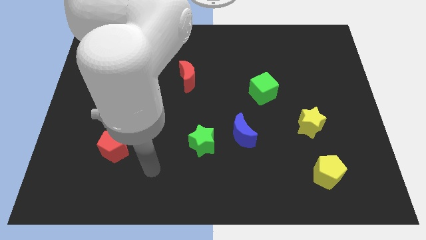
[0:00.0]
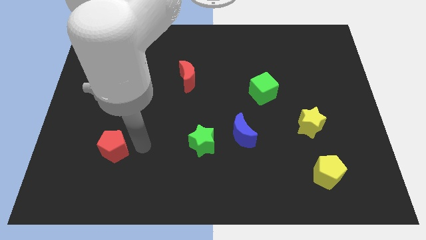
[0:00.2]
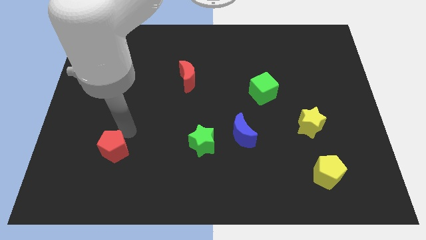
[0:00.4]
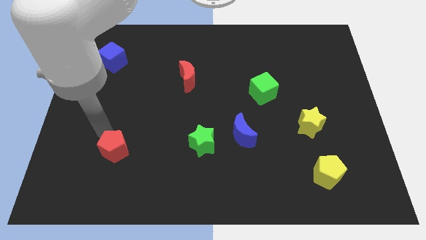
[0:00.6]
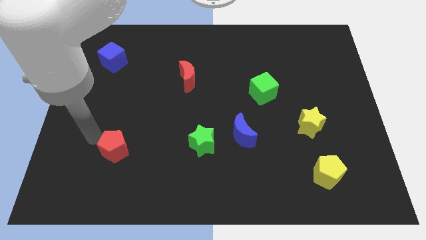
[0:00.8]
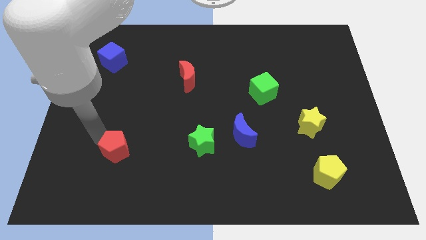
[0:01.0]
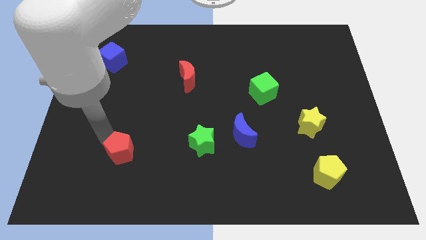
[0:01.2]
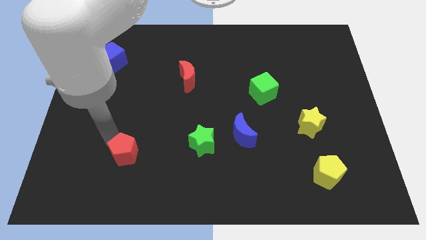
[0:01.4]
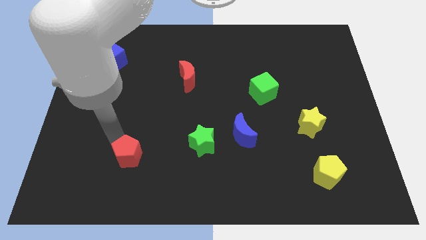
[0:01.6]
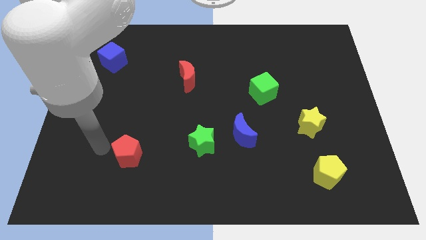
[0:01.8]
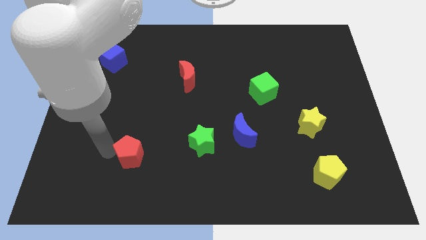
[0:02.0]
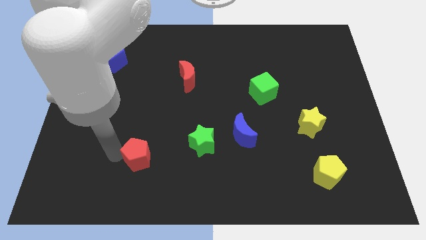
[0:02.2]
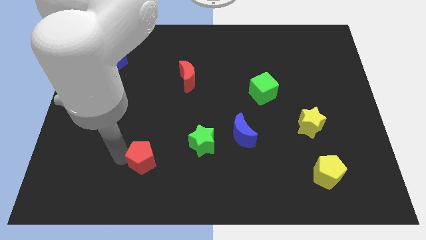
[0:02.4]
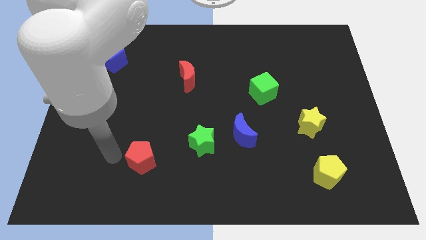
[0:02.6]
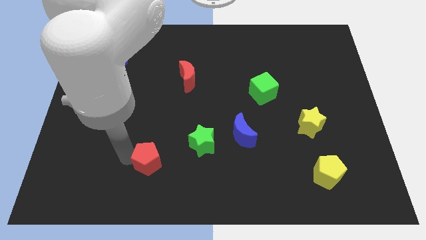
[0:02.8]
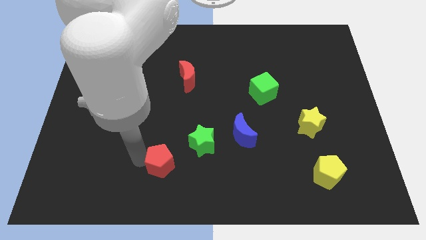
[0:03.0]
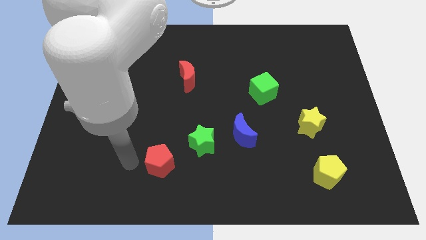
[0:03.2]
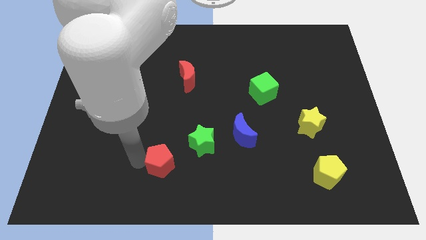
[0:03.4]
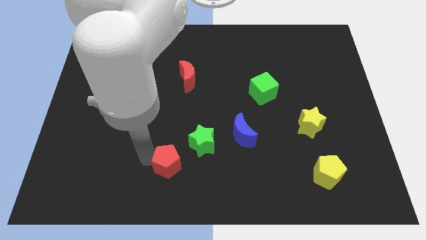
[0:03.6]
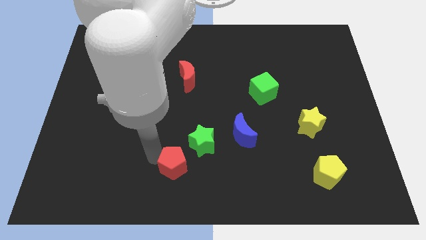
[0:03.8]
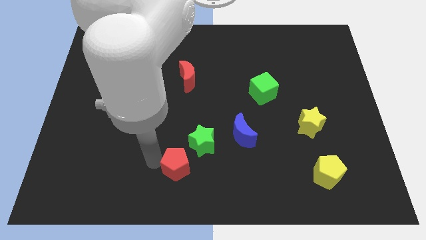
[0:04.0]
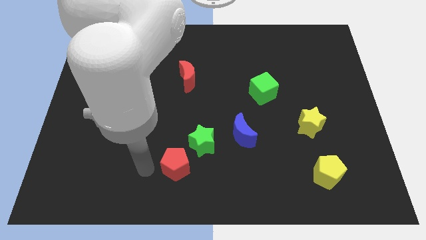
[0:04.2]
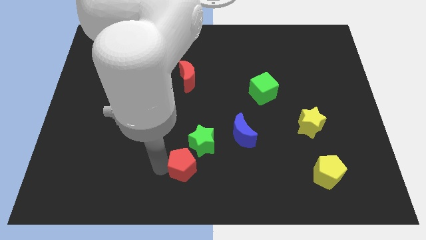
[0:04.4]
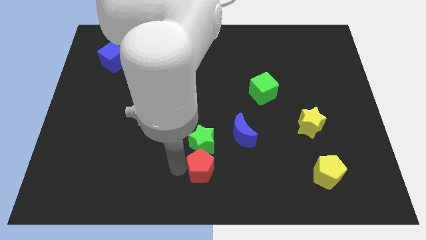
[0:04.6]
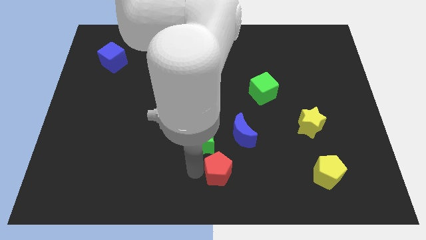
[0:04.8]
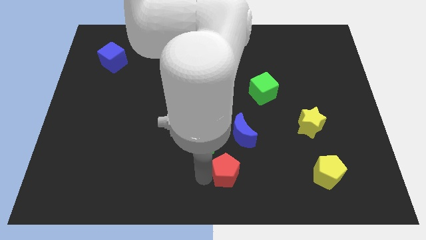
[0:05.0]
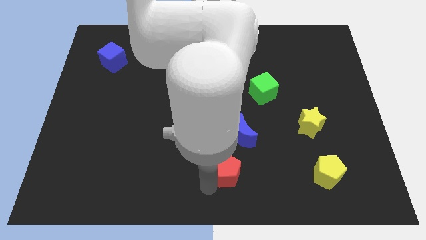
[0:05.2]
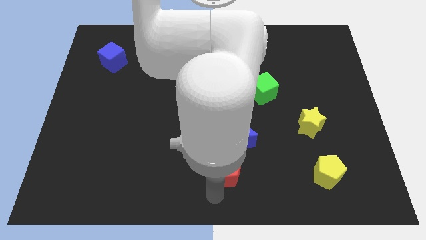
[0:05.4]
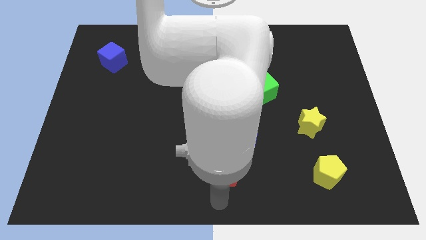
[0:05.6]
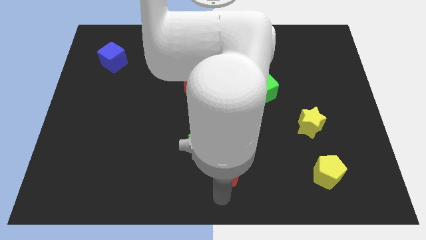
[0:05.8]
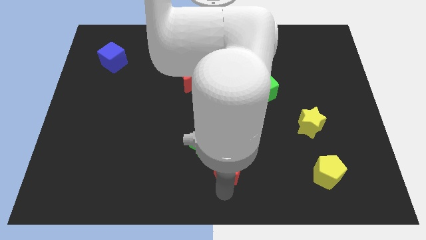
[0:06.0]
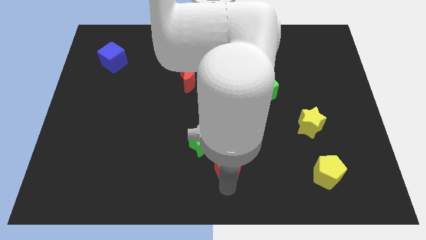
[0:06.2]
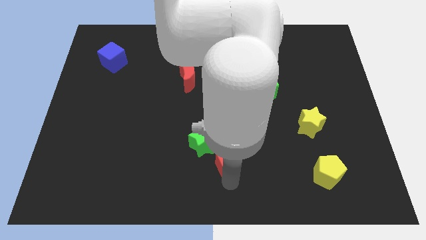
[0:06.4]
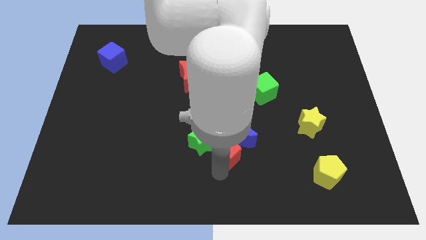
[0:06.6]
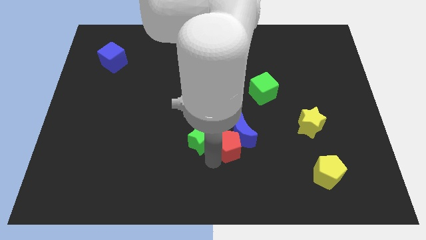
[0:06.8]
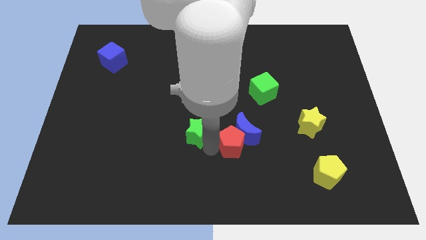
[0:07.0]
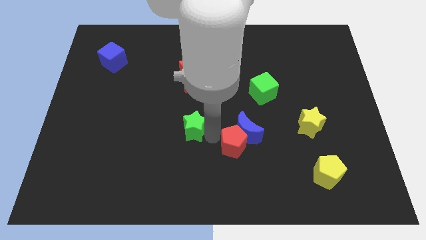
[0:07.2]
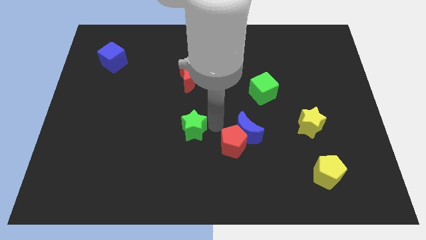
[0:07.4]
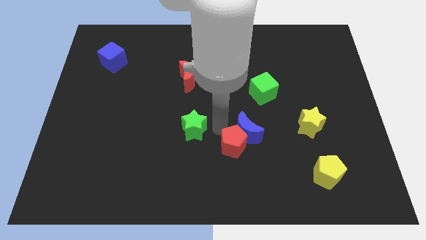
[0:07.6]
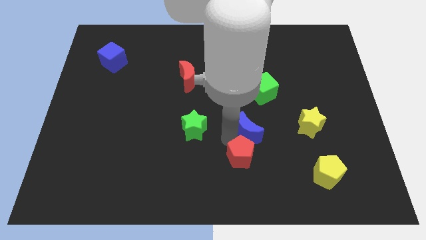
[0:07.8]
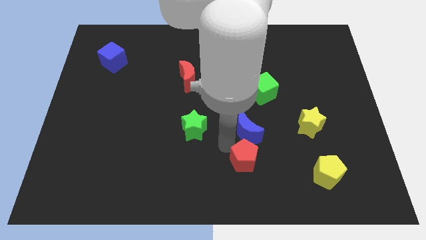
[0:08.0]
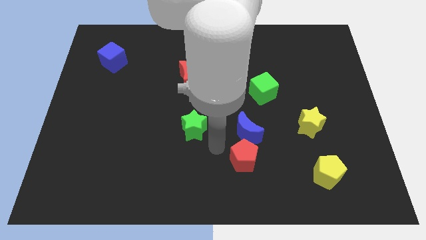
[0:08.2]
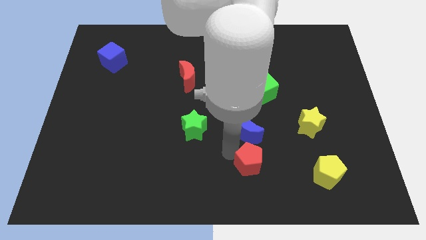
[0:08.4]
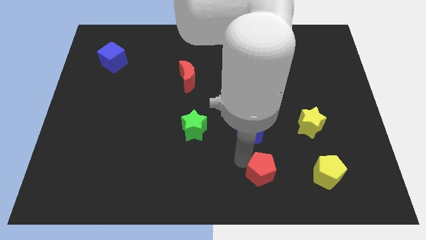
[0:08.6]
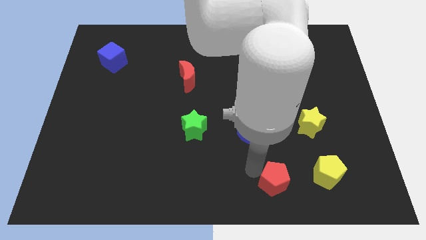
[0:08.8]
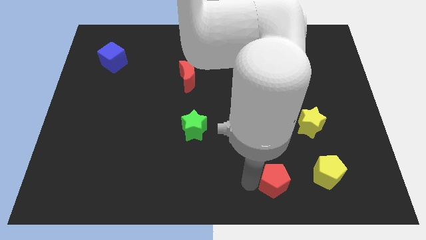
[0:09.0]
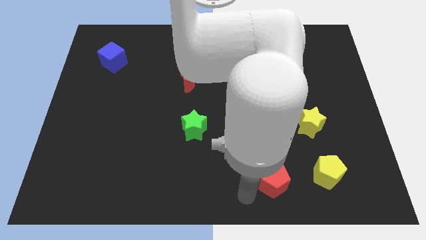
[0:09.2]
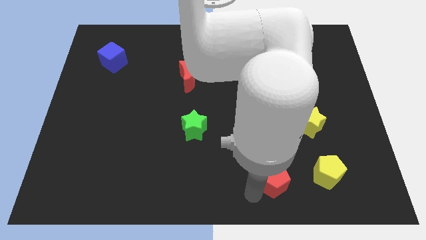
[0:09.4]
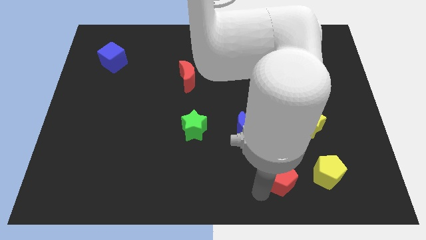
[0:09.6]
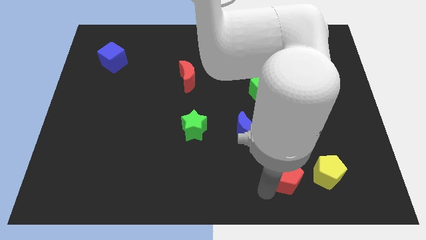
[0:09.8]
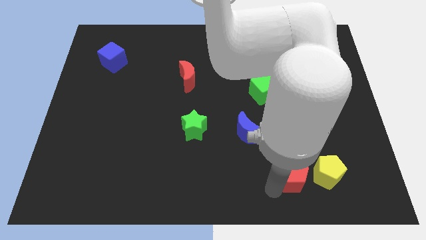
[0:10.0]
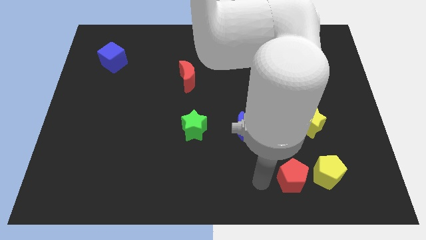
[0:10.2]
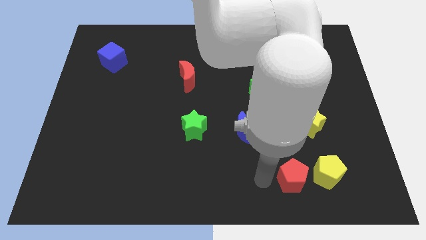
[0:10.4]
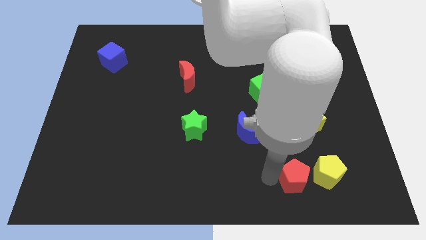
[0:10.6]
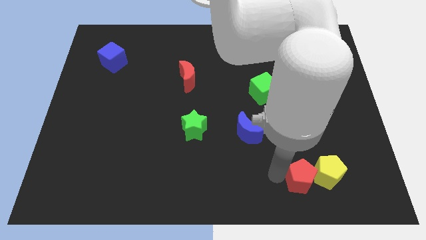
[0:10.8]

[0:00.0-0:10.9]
put the red pentagon to the yellow pentagon

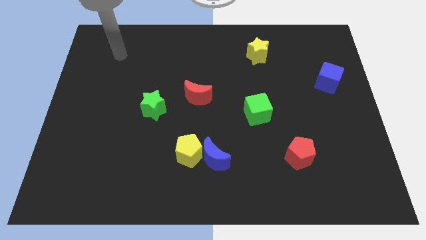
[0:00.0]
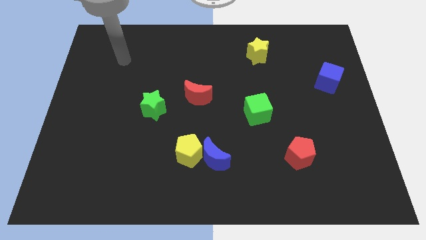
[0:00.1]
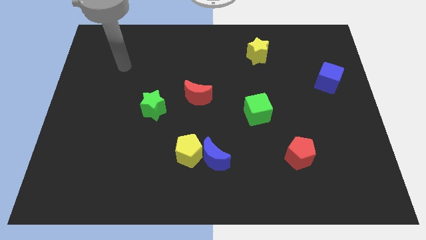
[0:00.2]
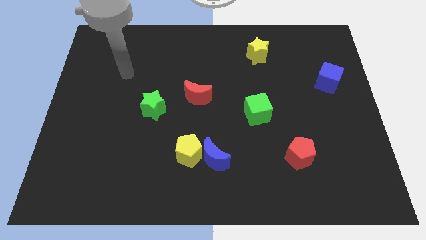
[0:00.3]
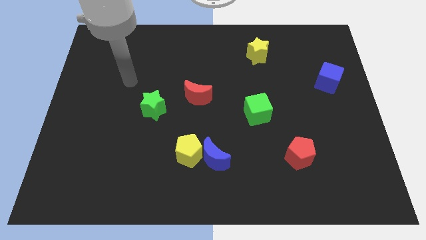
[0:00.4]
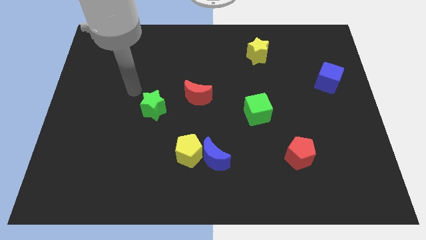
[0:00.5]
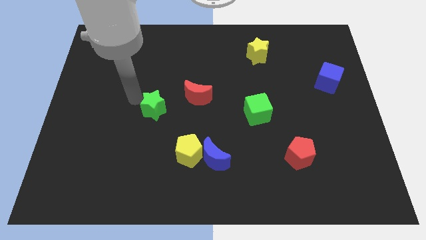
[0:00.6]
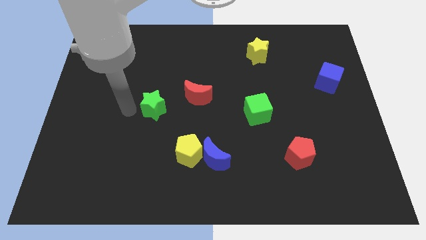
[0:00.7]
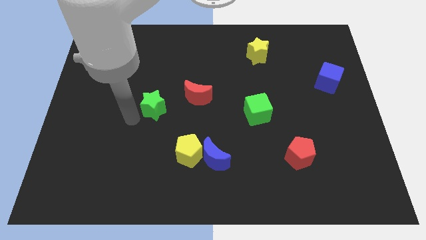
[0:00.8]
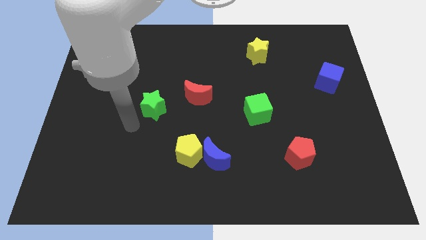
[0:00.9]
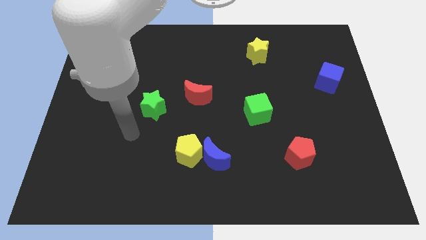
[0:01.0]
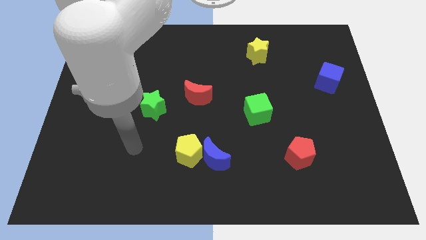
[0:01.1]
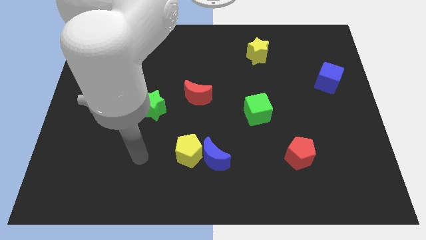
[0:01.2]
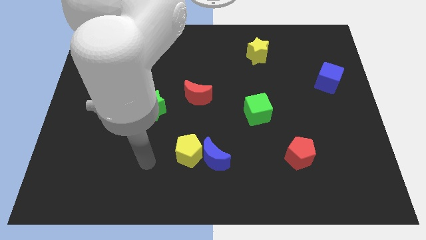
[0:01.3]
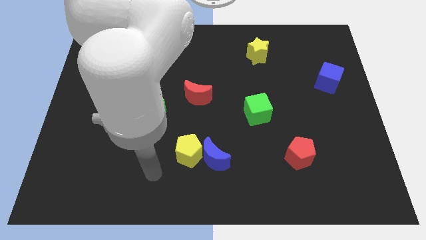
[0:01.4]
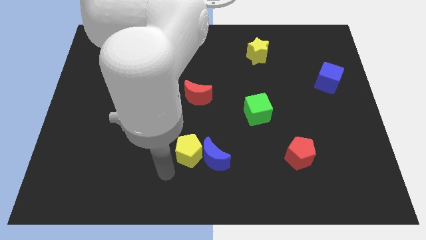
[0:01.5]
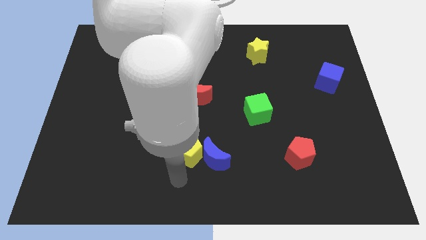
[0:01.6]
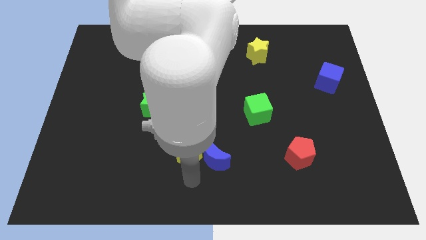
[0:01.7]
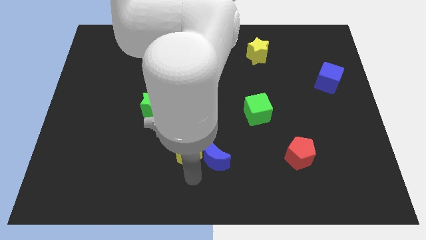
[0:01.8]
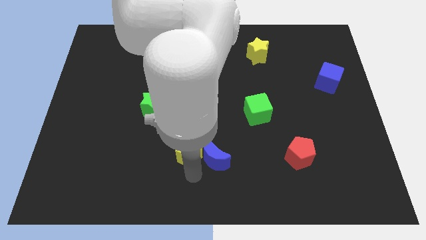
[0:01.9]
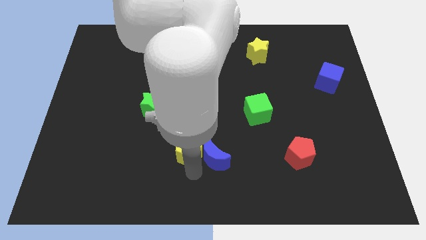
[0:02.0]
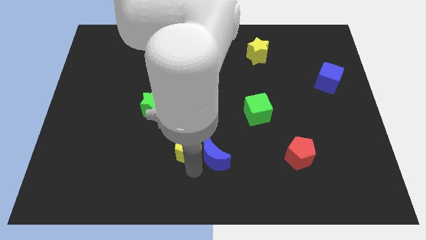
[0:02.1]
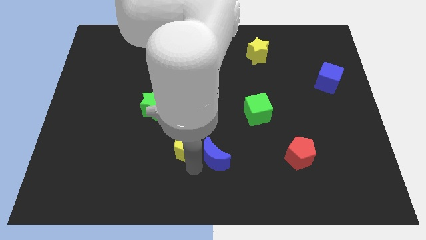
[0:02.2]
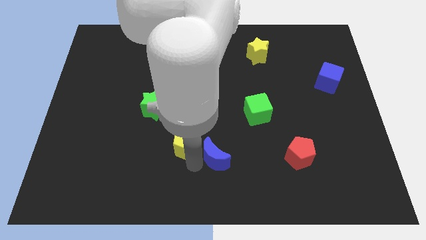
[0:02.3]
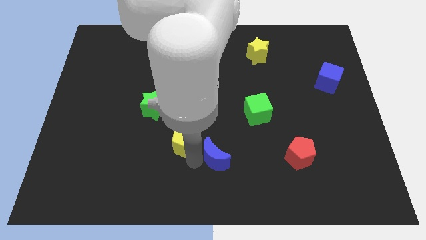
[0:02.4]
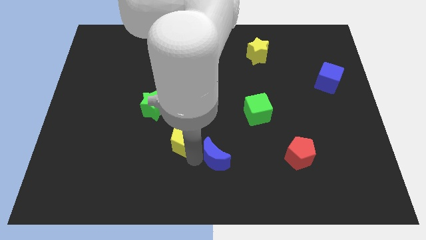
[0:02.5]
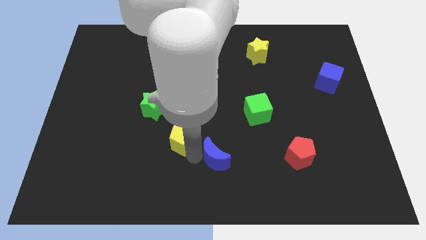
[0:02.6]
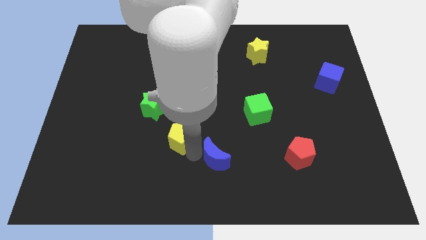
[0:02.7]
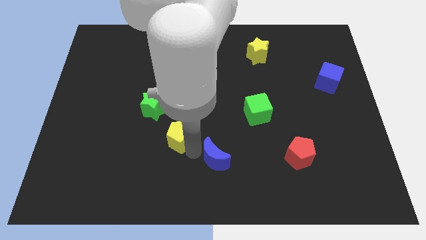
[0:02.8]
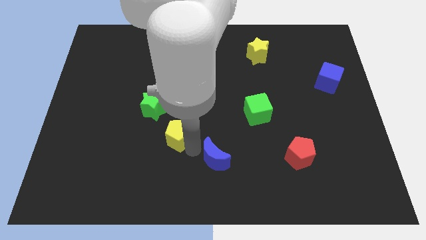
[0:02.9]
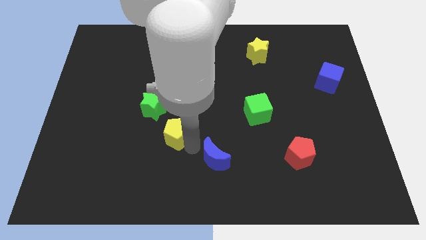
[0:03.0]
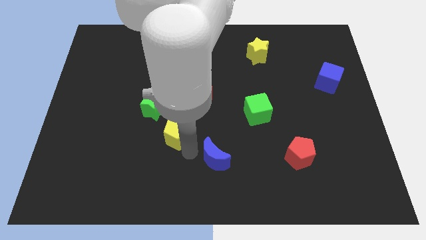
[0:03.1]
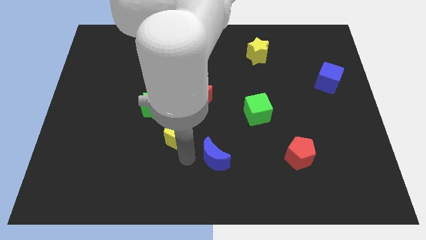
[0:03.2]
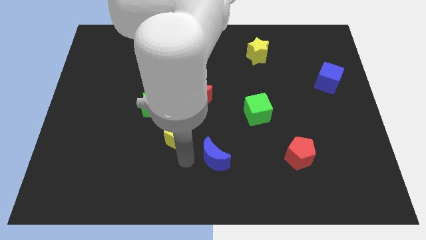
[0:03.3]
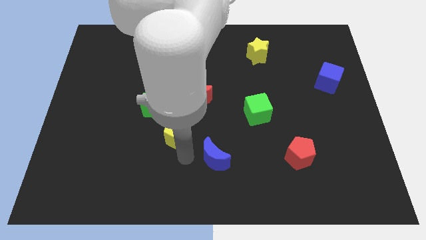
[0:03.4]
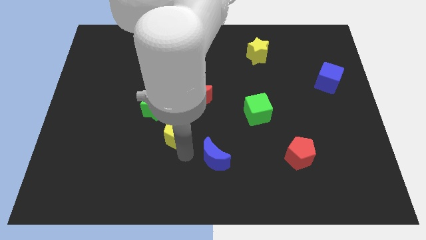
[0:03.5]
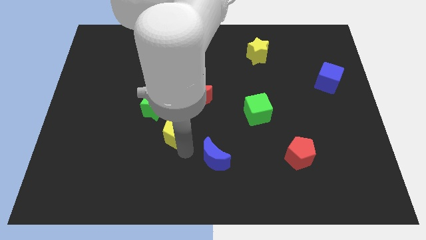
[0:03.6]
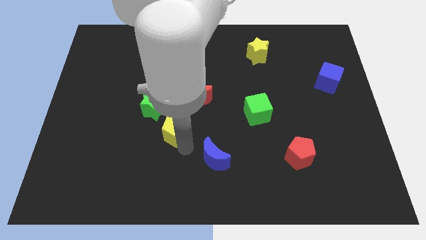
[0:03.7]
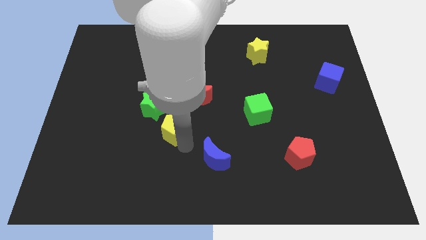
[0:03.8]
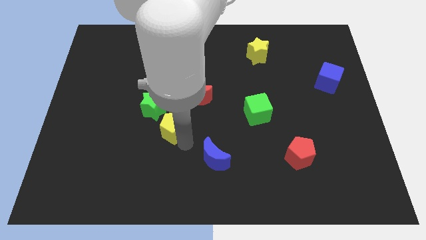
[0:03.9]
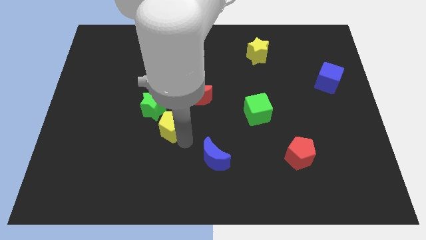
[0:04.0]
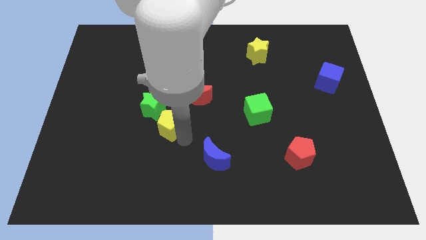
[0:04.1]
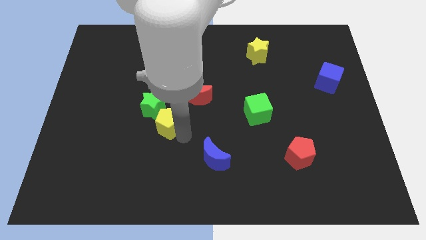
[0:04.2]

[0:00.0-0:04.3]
put the yellow pentagon towards the green star
